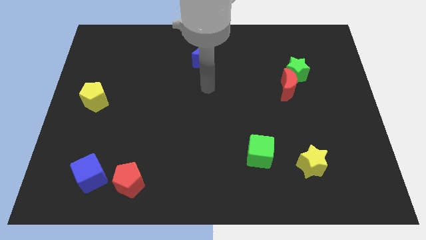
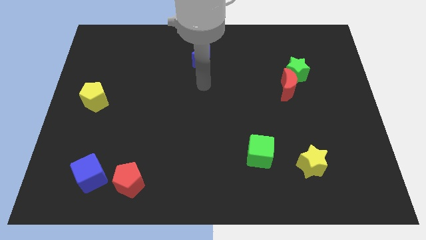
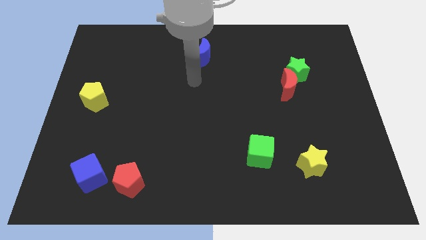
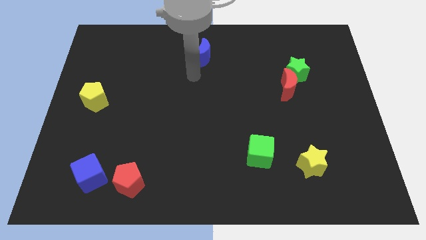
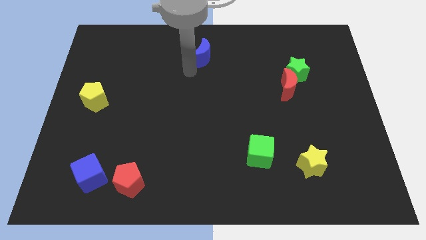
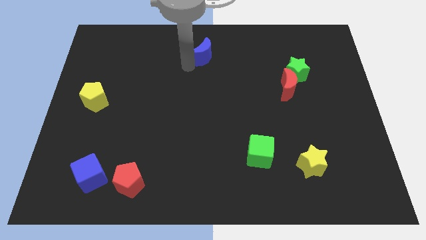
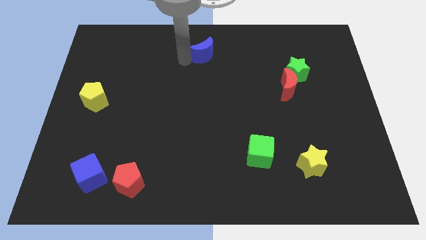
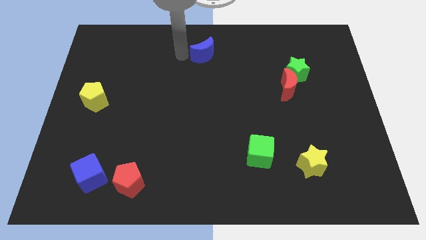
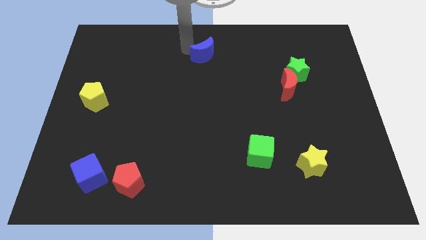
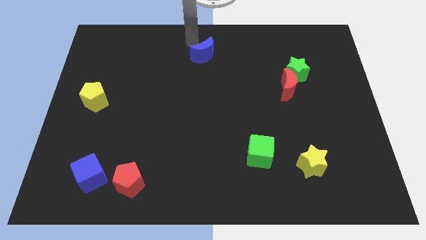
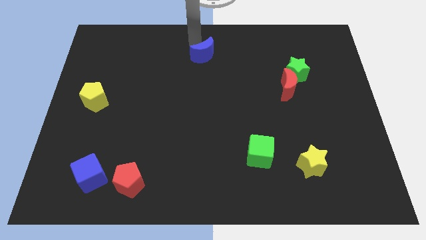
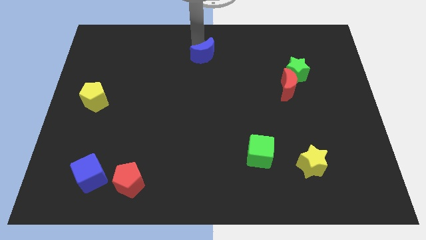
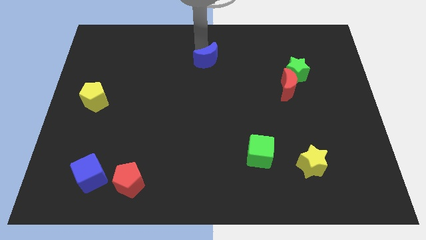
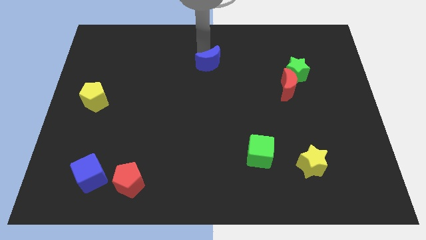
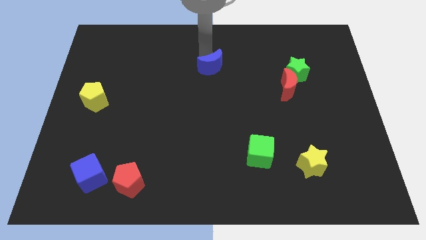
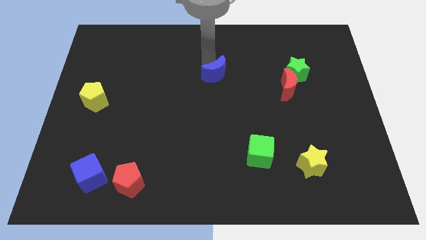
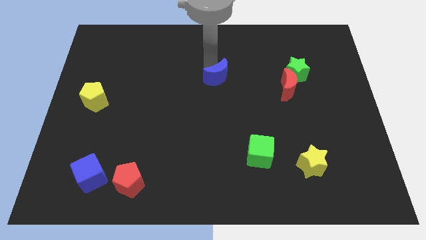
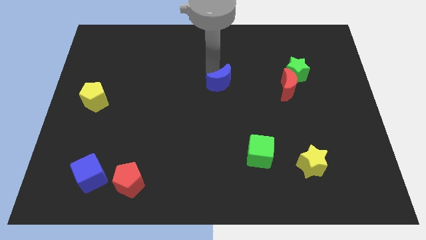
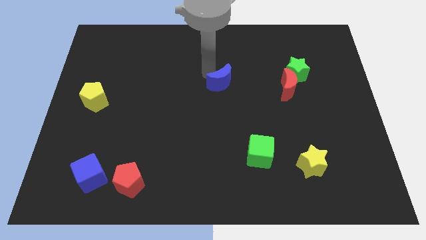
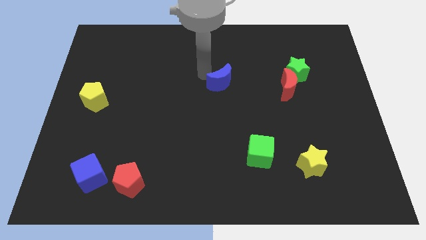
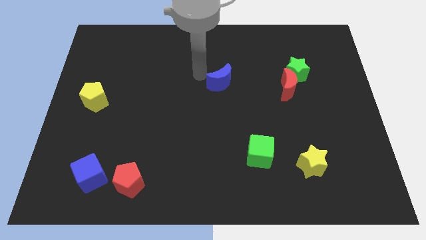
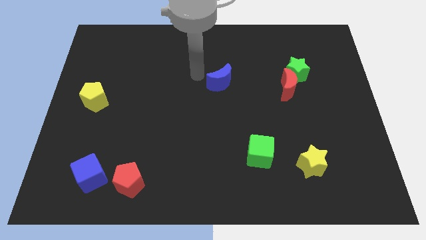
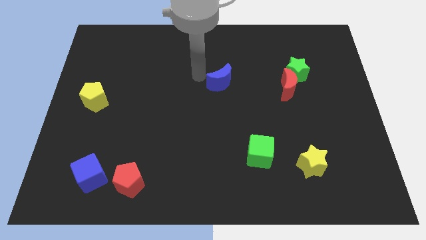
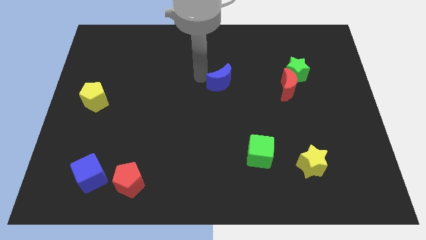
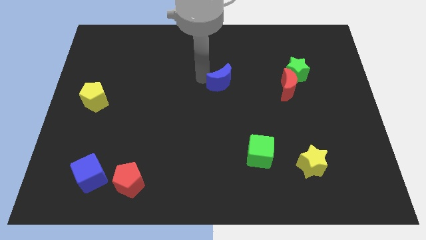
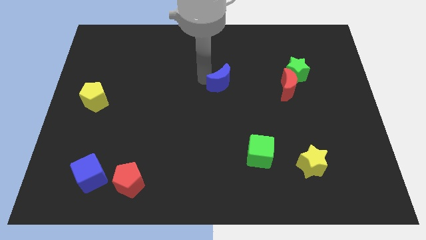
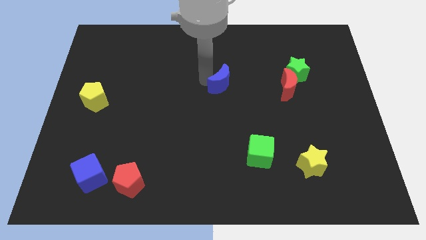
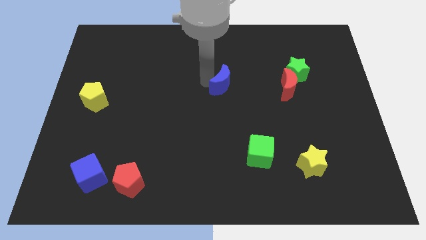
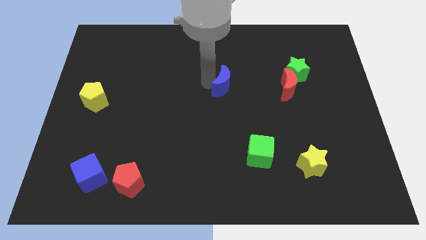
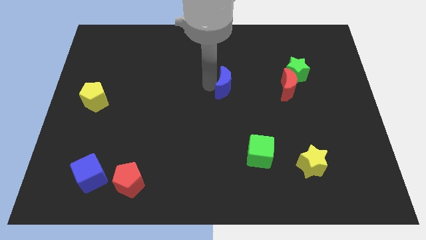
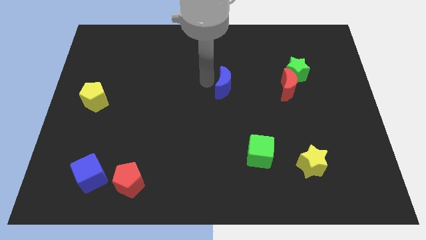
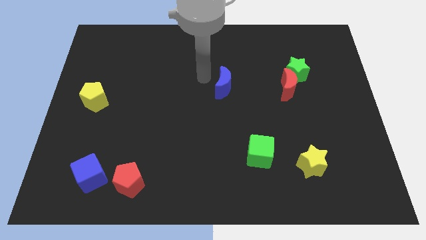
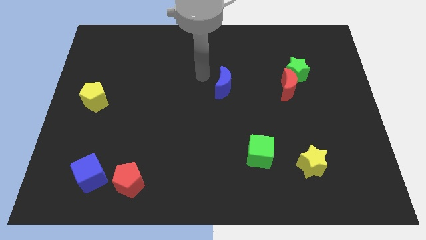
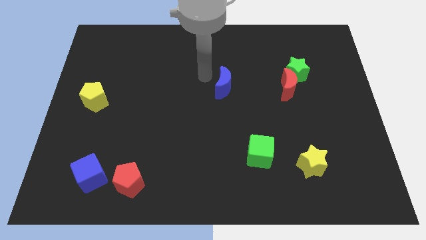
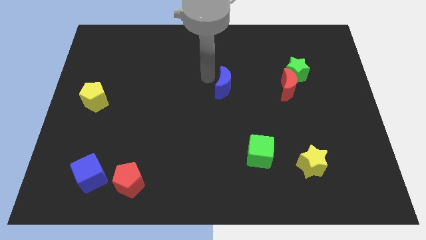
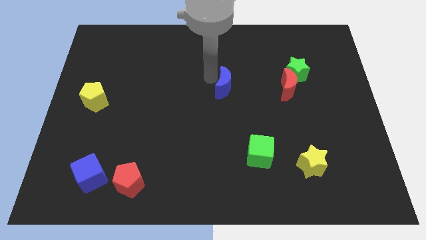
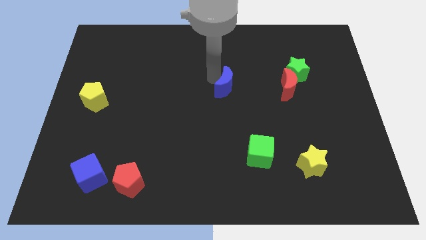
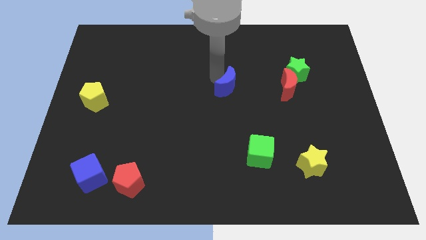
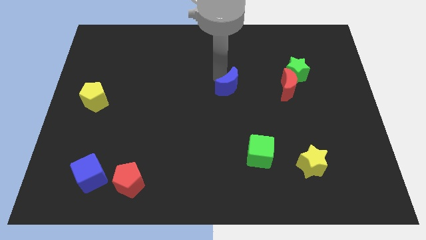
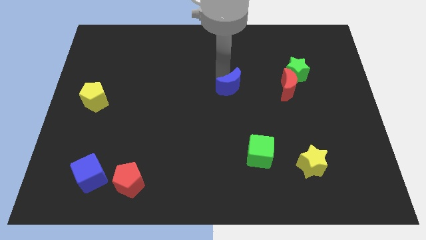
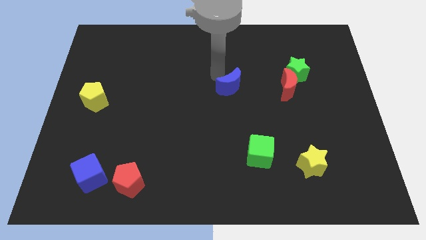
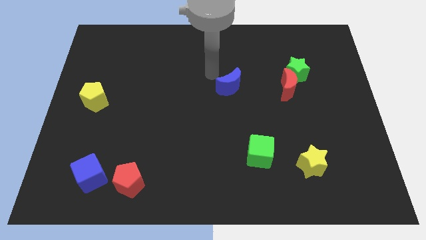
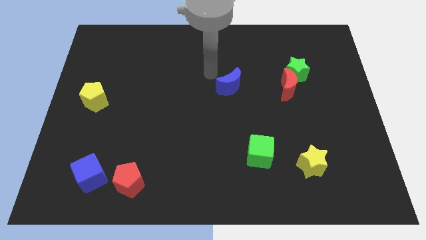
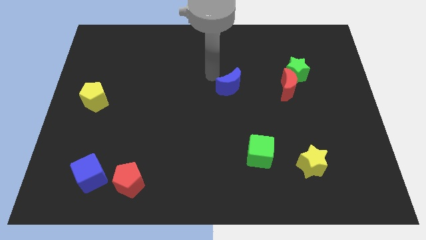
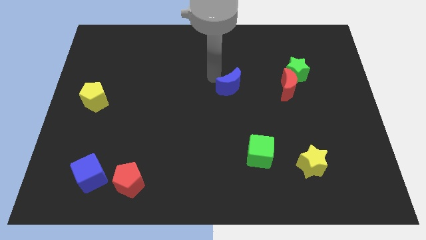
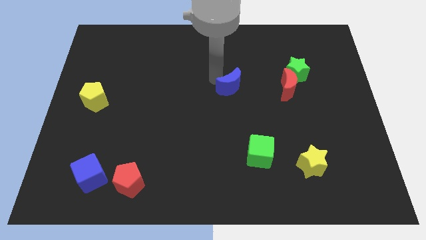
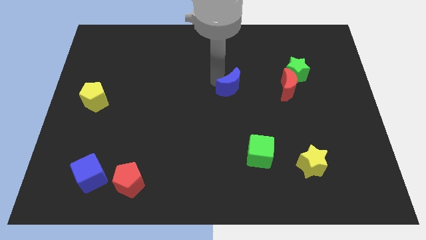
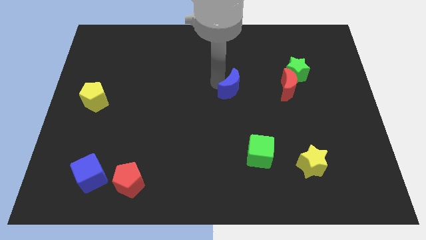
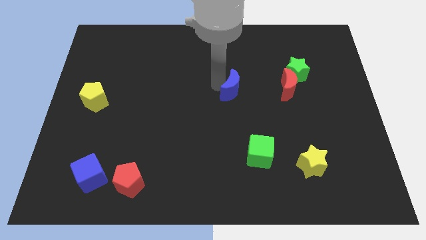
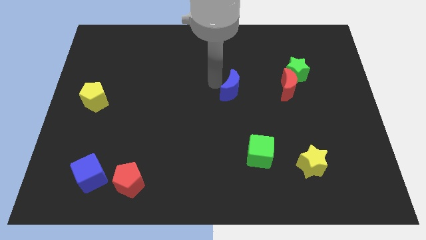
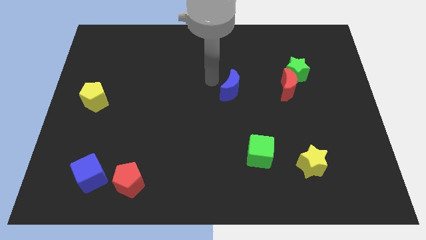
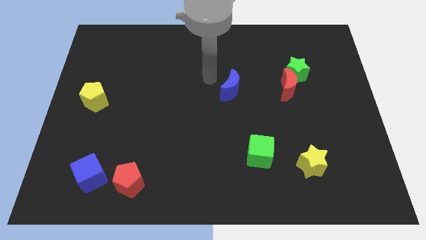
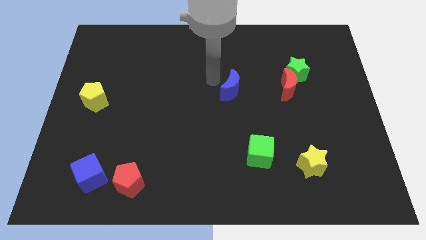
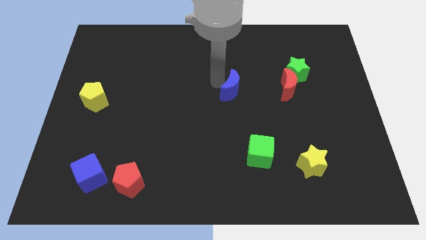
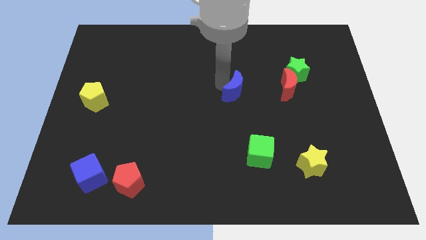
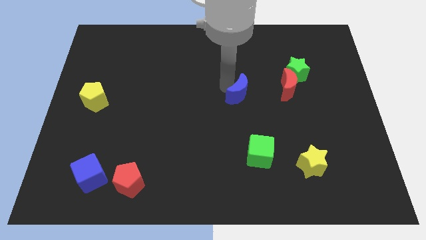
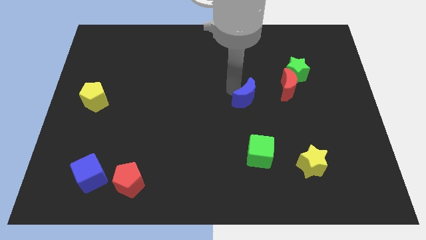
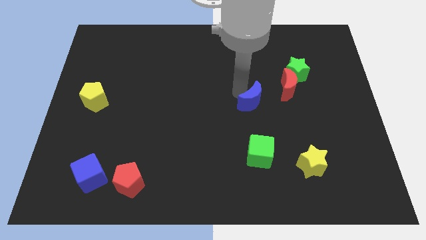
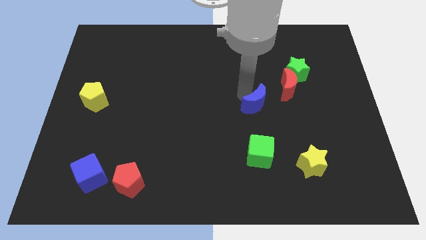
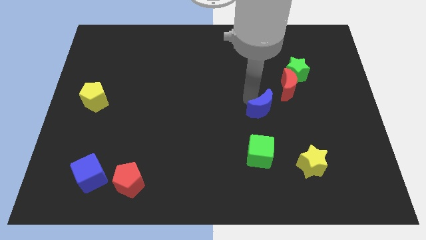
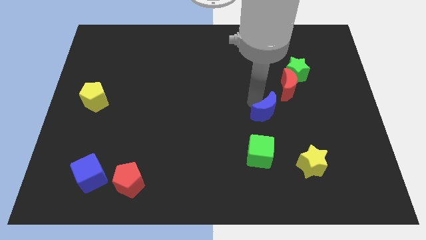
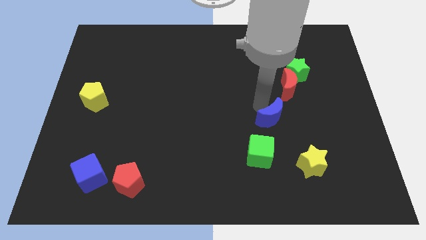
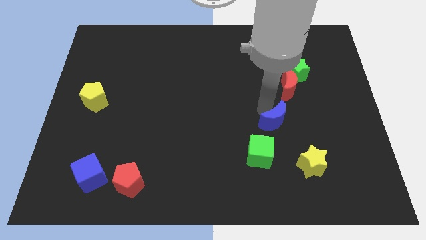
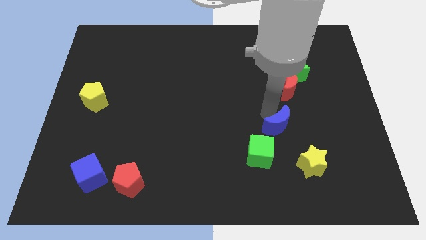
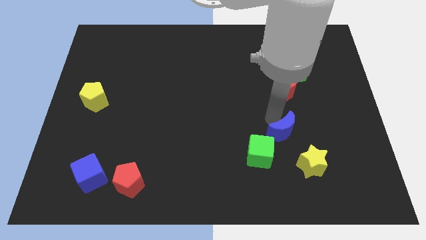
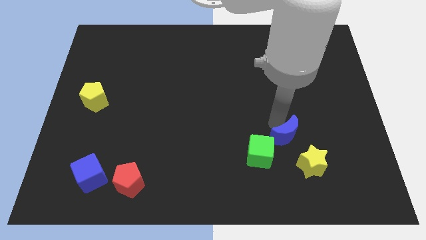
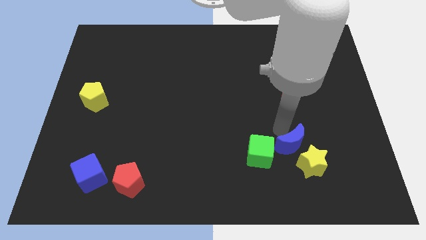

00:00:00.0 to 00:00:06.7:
move the blue moon towards the yellow star

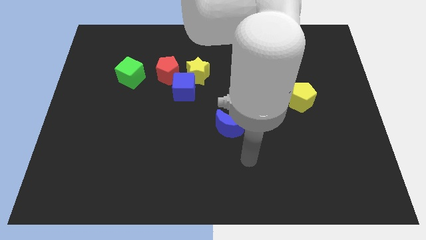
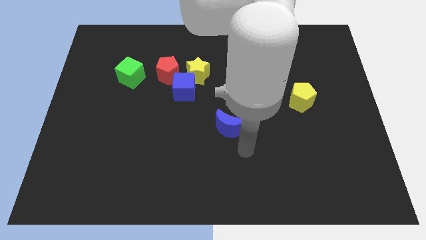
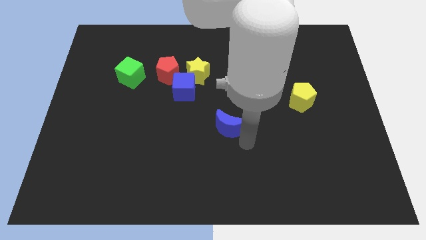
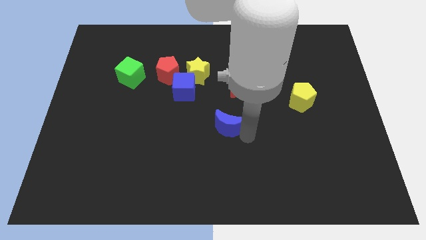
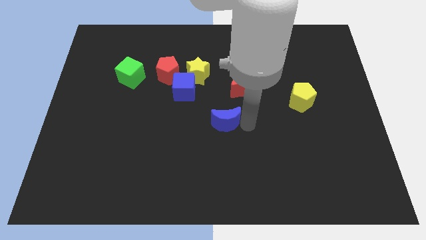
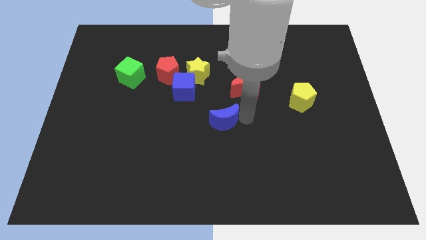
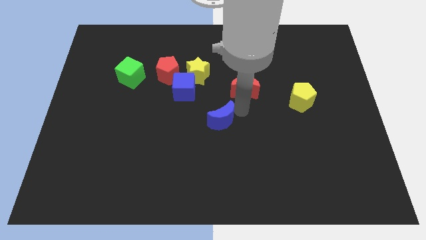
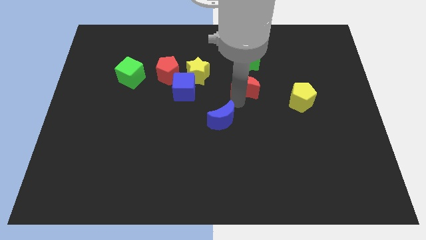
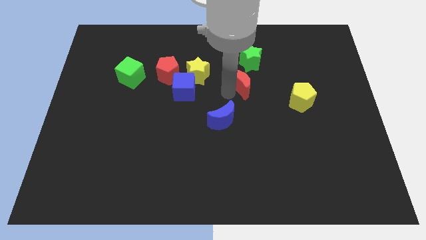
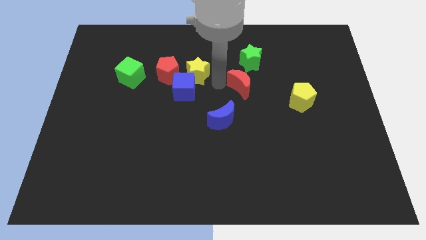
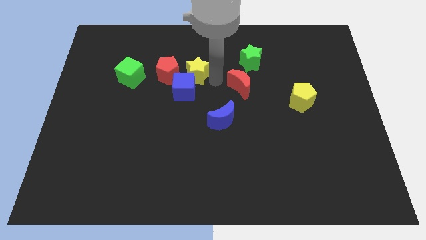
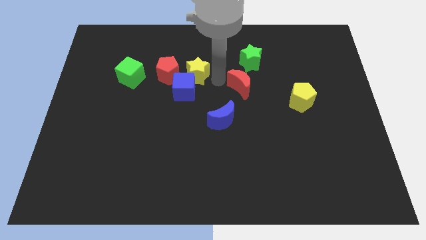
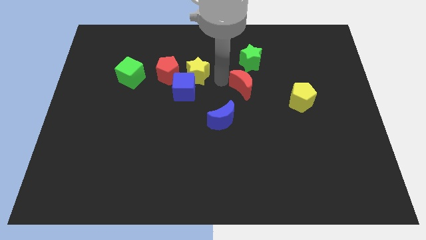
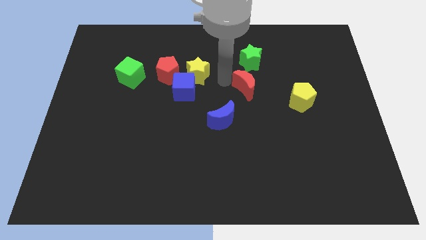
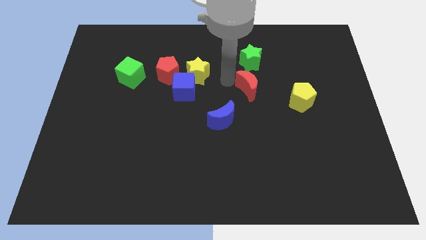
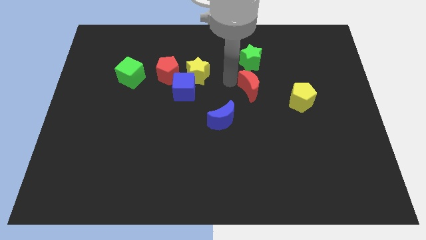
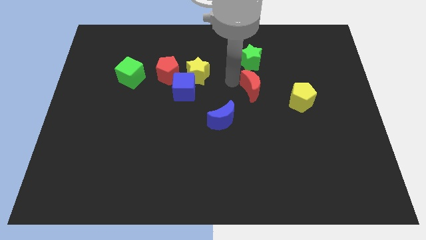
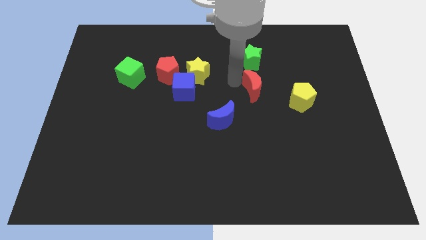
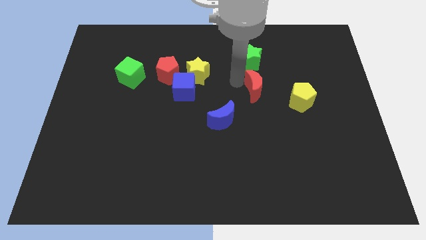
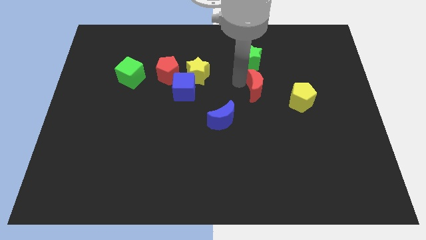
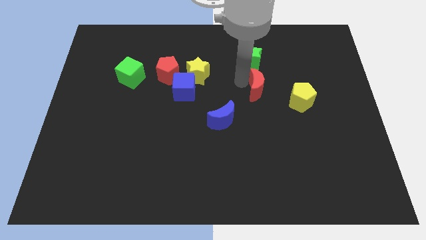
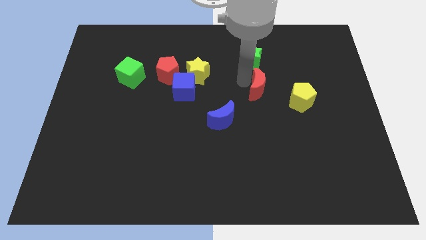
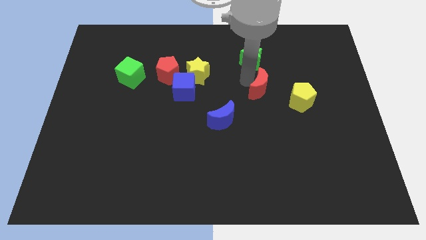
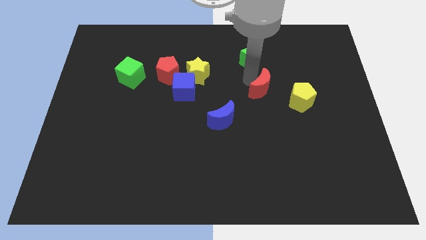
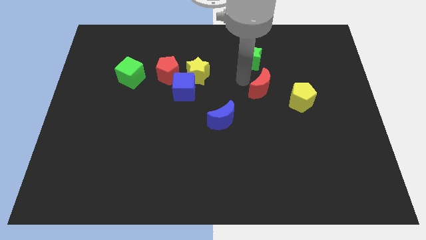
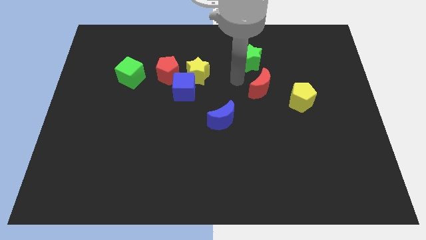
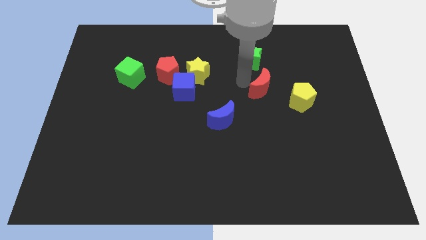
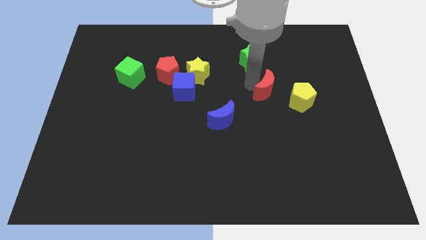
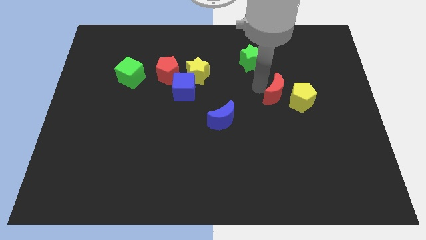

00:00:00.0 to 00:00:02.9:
put the red moon close to the yellow pentagon
